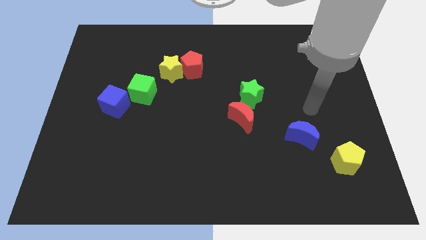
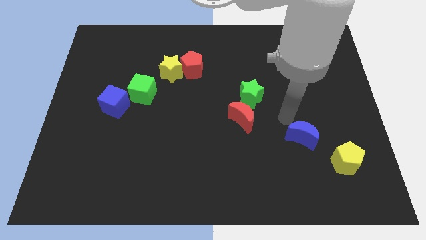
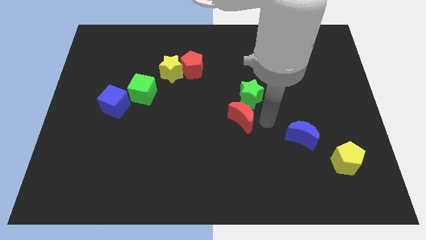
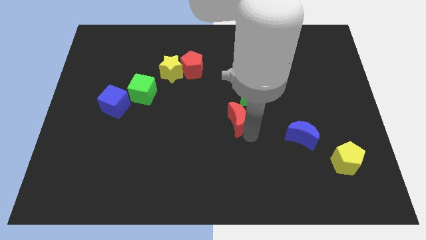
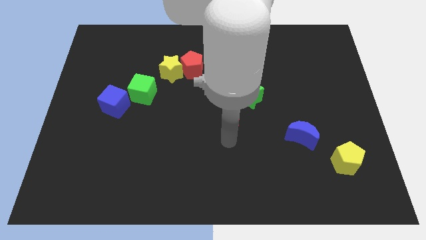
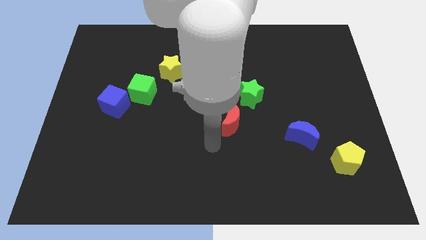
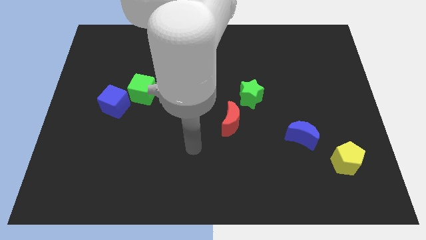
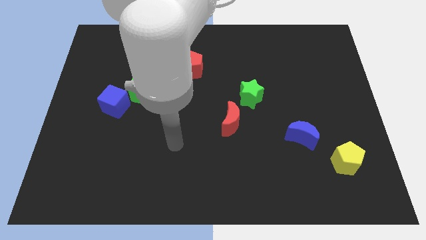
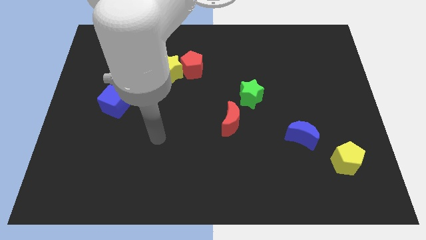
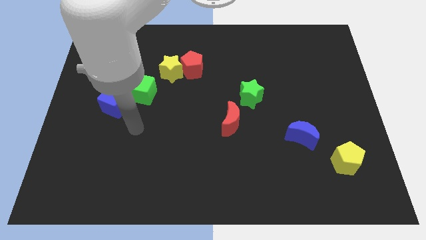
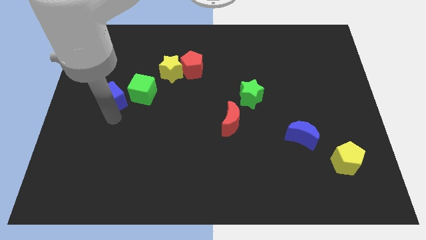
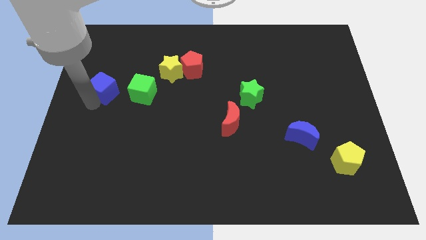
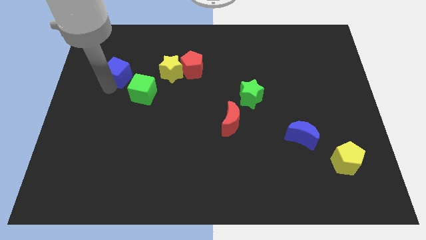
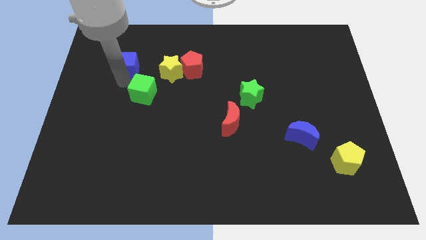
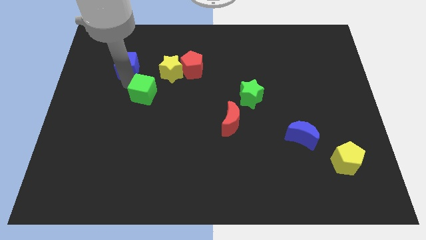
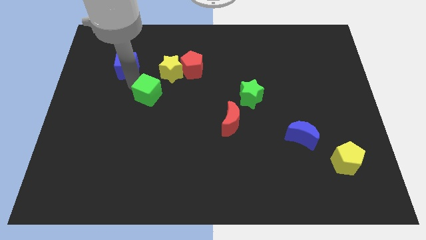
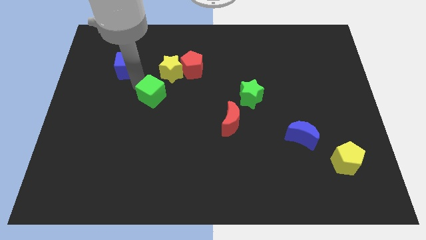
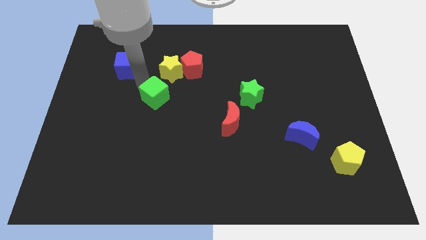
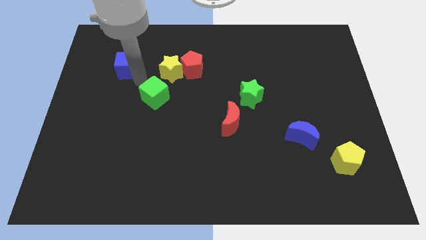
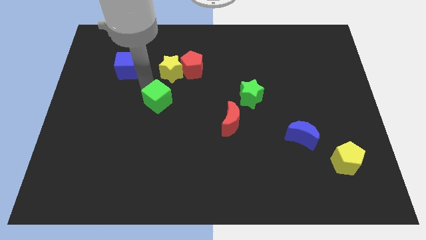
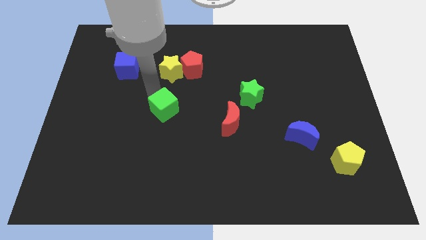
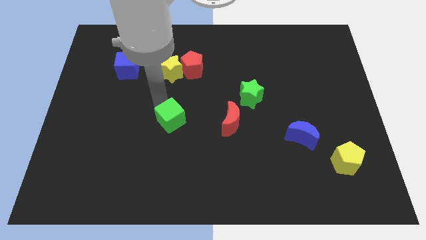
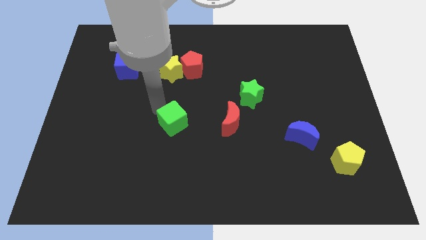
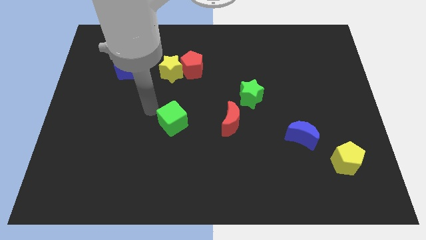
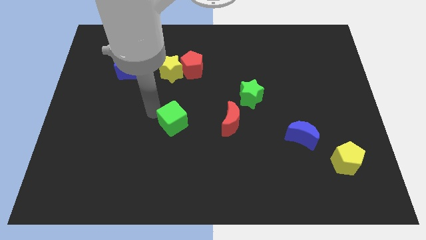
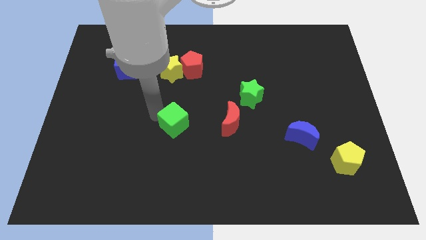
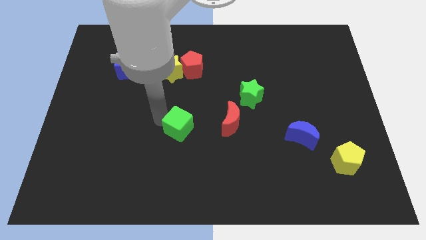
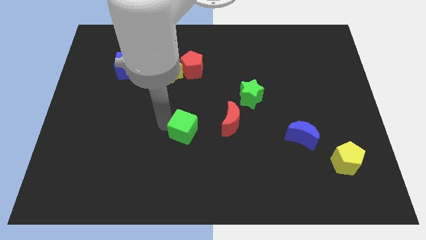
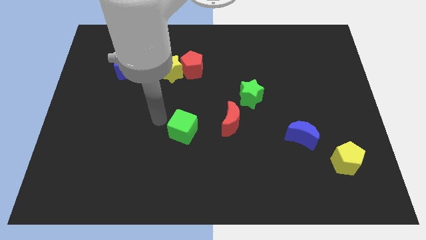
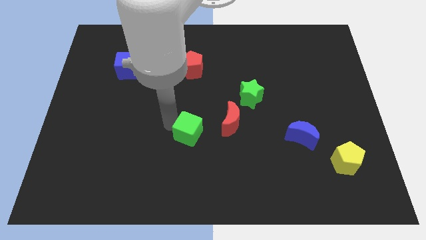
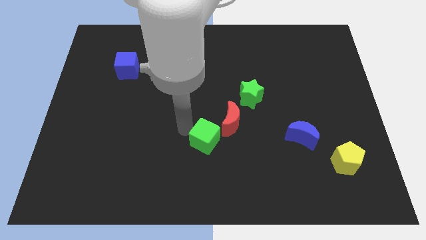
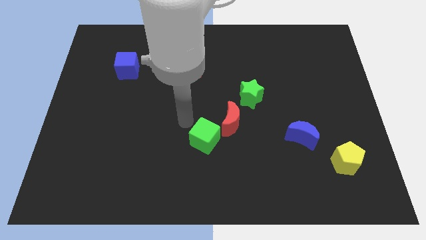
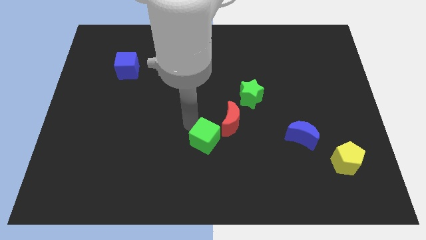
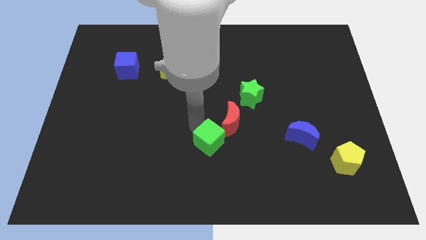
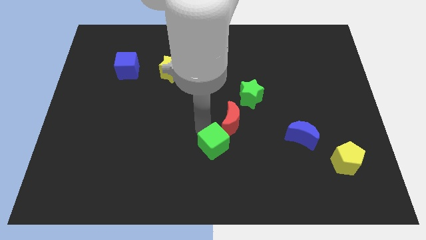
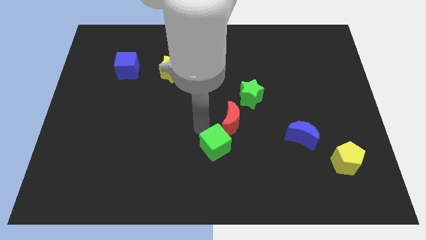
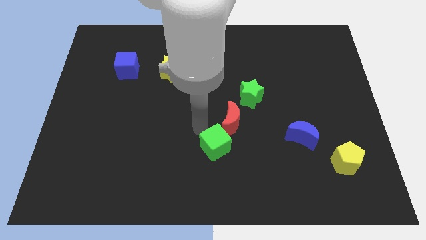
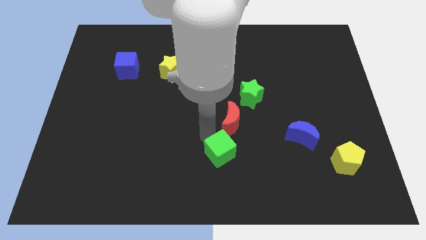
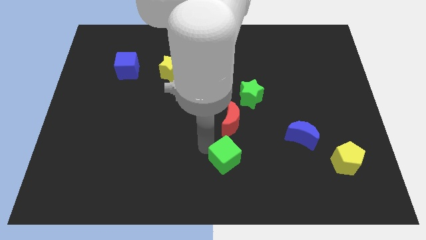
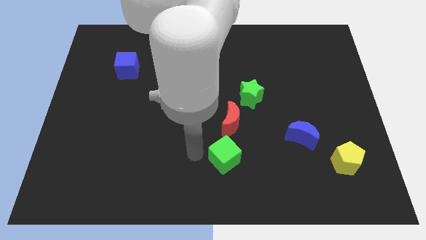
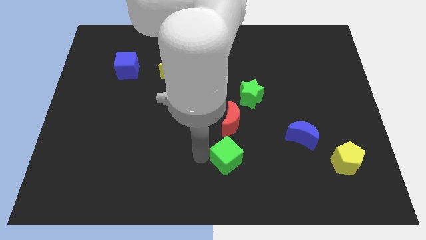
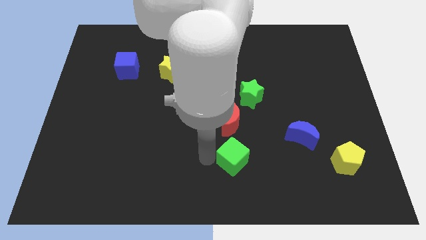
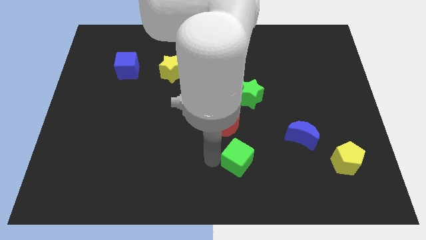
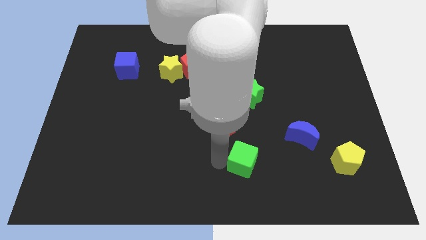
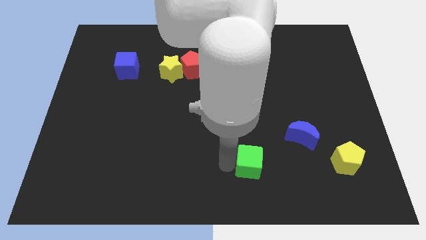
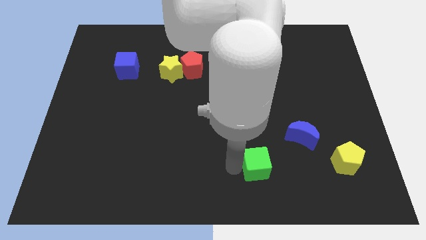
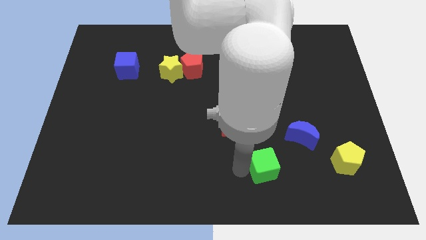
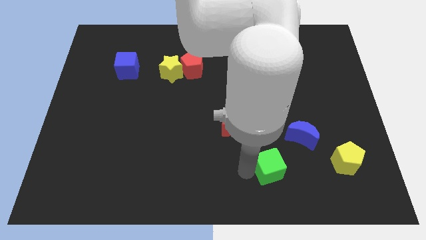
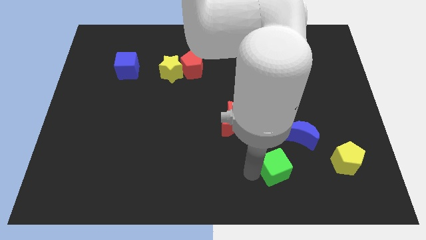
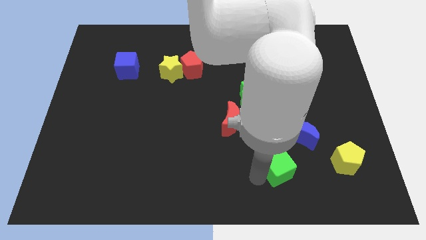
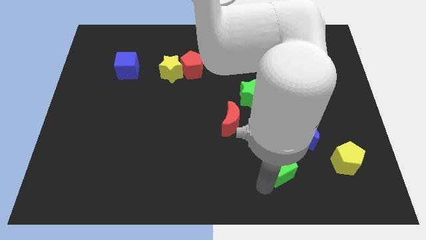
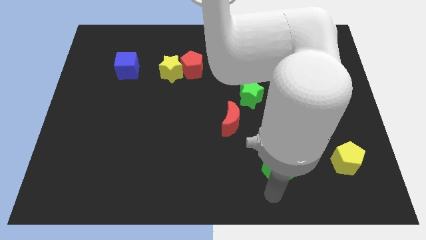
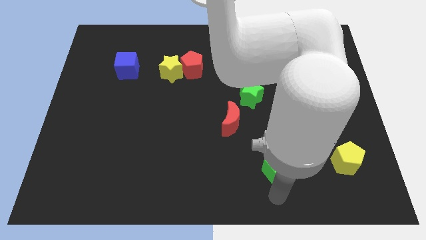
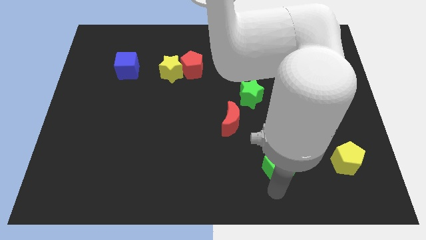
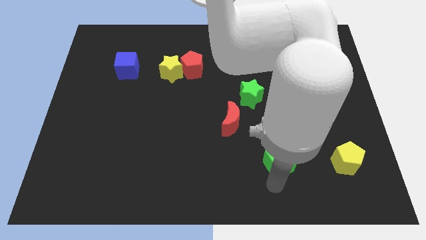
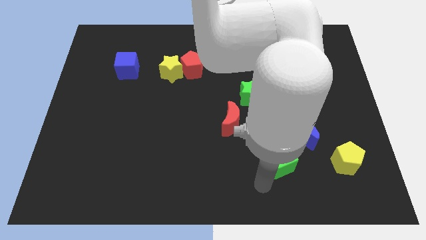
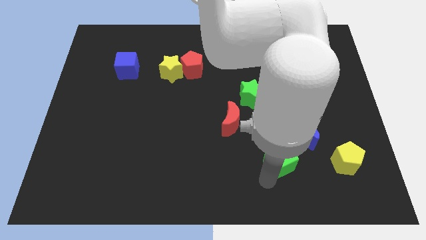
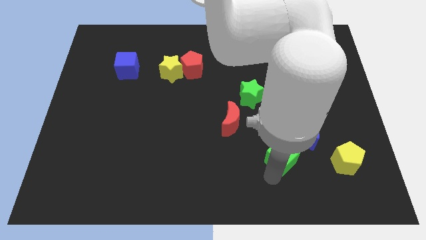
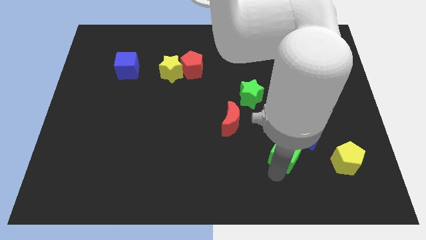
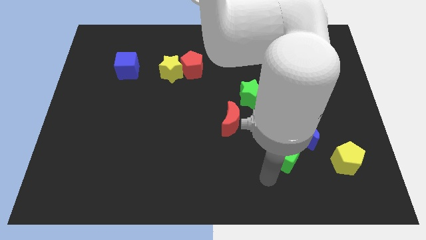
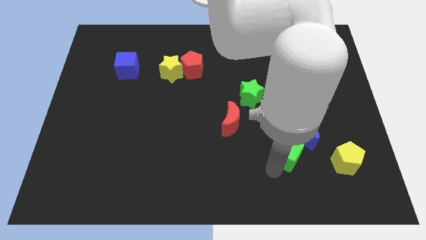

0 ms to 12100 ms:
push the green cube towards the blue moon

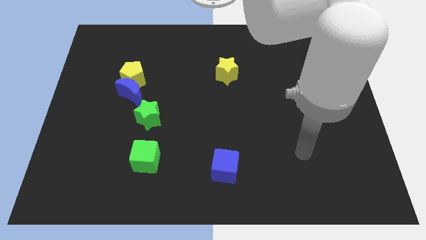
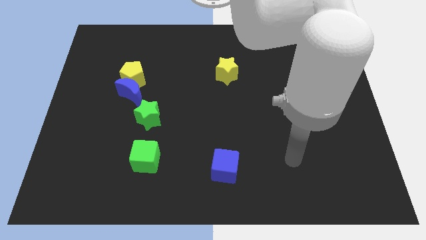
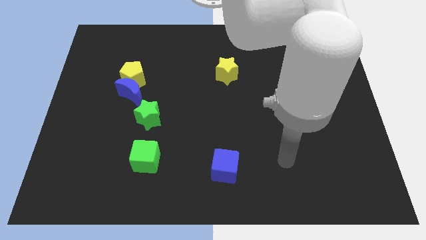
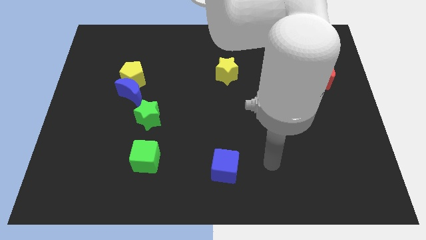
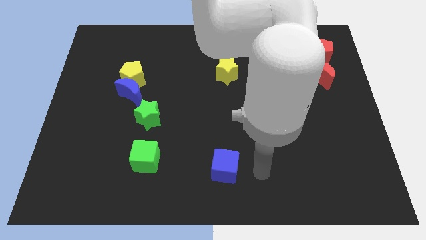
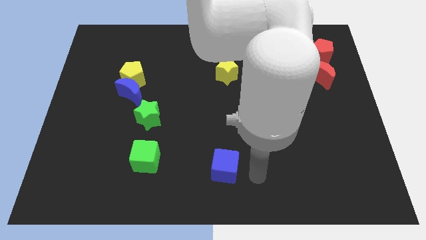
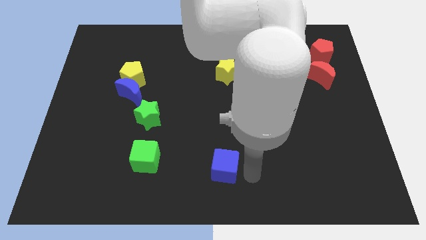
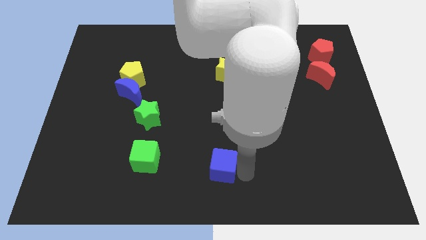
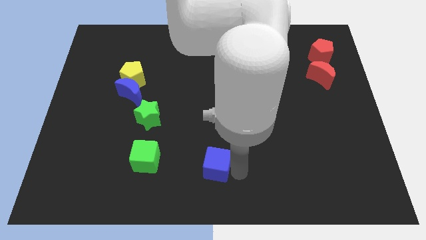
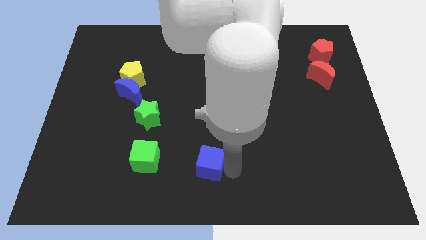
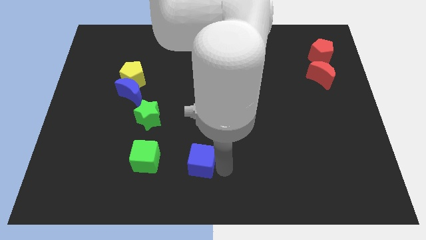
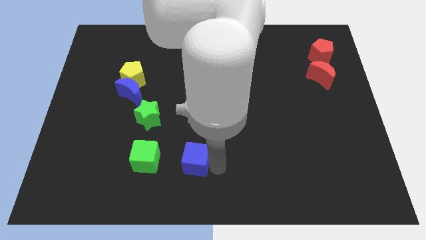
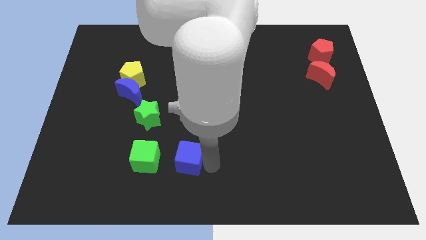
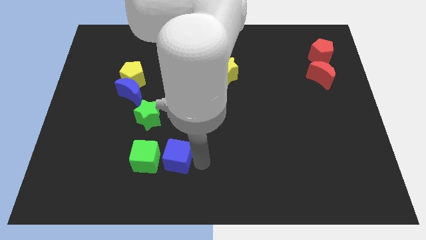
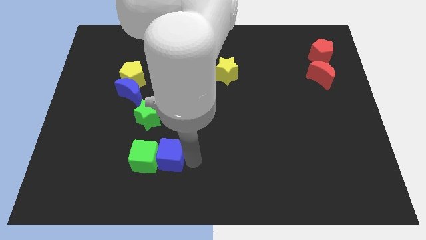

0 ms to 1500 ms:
put the blue cube next to the green cube
